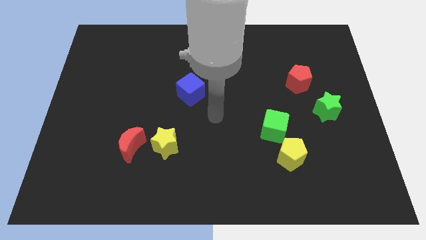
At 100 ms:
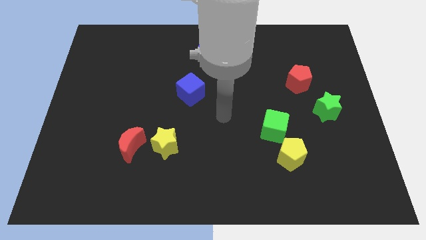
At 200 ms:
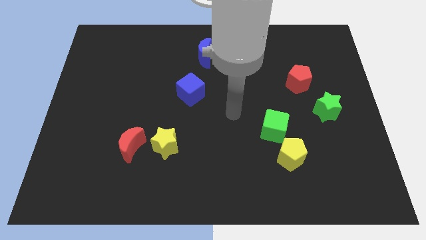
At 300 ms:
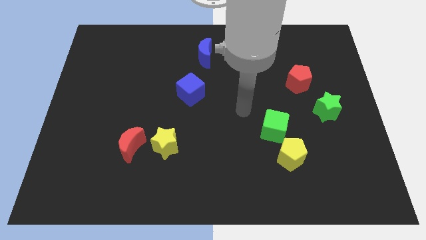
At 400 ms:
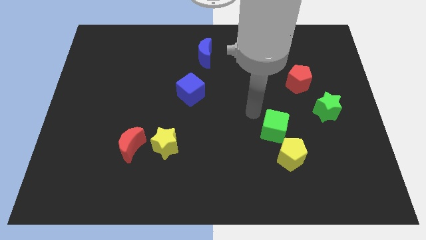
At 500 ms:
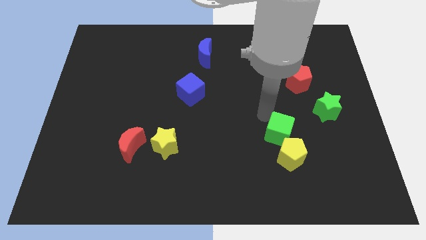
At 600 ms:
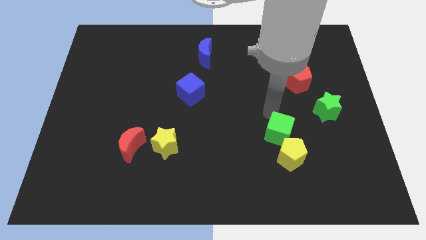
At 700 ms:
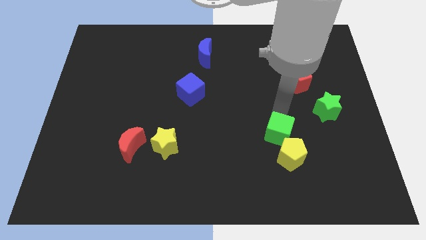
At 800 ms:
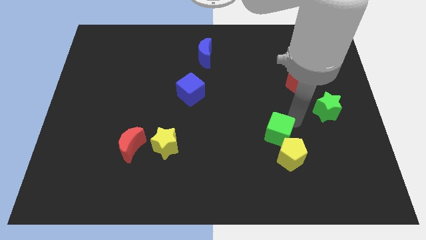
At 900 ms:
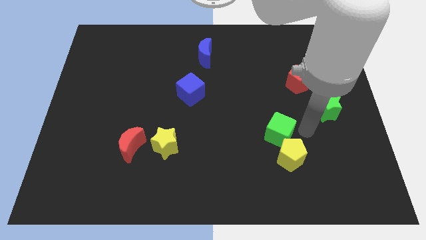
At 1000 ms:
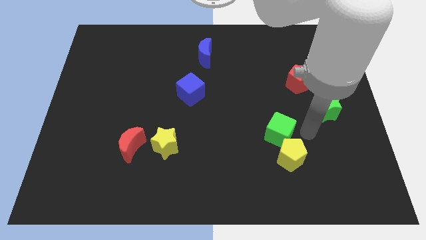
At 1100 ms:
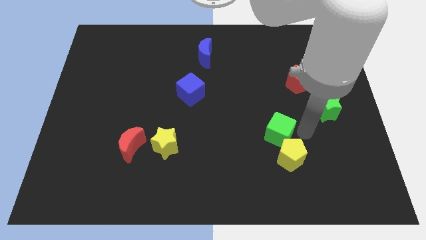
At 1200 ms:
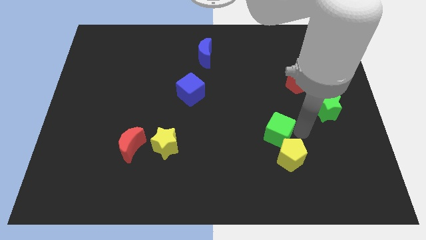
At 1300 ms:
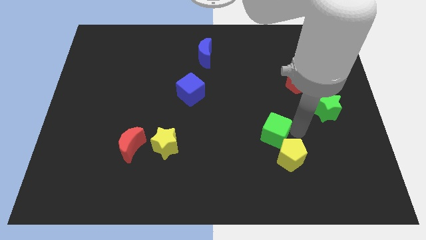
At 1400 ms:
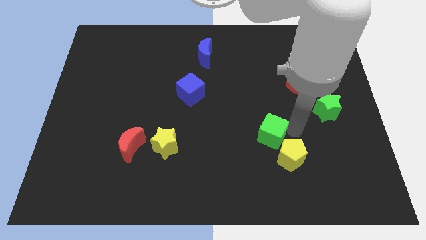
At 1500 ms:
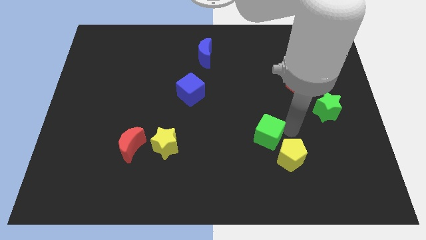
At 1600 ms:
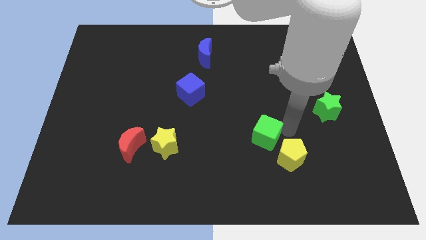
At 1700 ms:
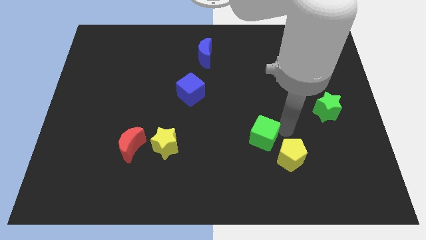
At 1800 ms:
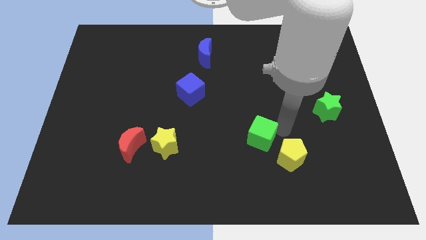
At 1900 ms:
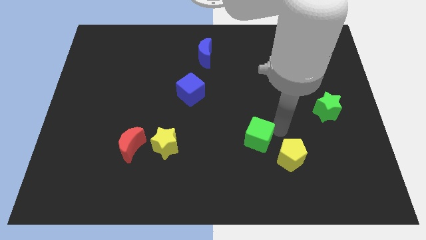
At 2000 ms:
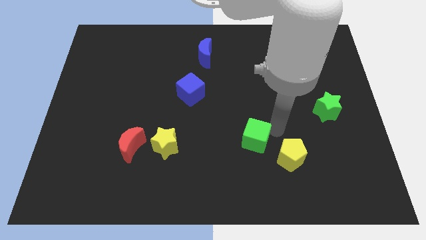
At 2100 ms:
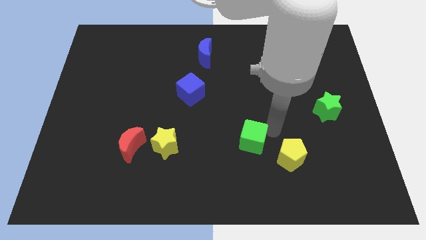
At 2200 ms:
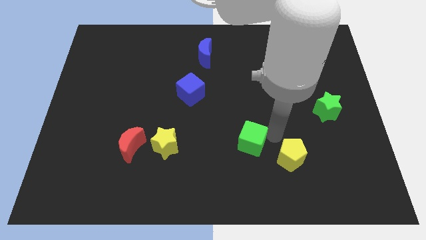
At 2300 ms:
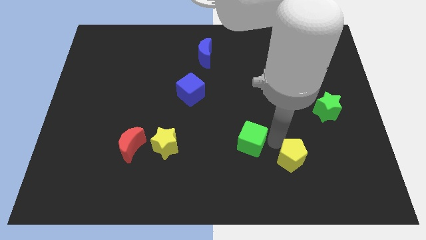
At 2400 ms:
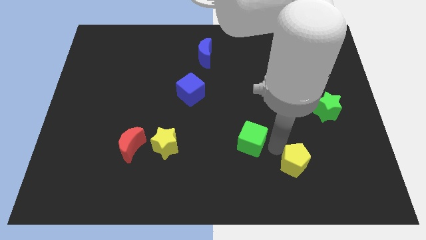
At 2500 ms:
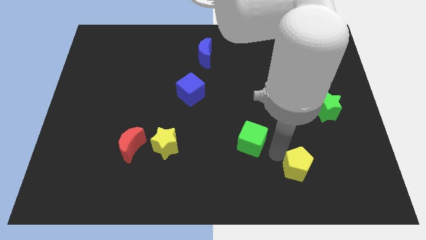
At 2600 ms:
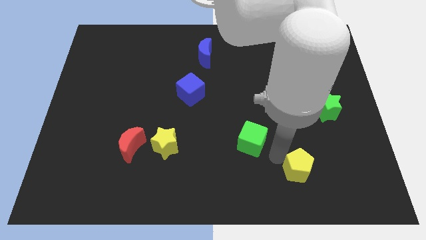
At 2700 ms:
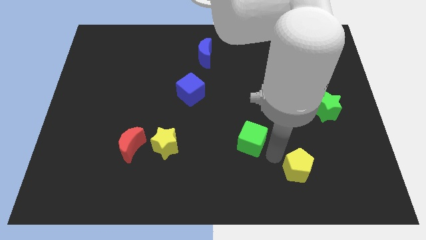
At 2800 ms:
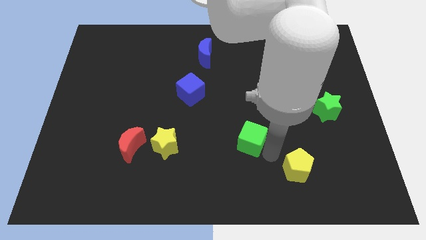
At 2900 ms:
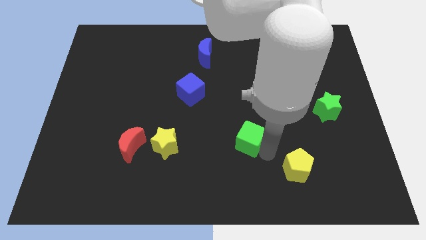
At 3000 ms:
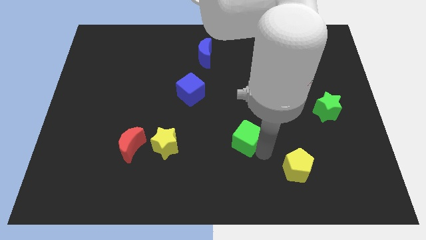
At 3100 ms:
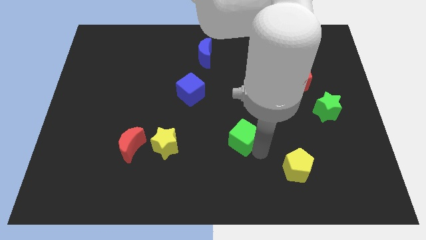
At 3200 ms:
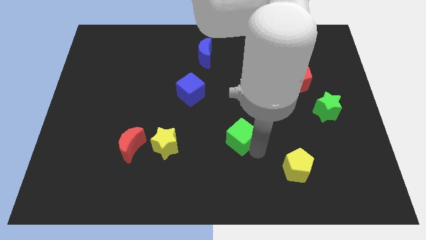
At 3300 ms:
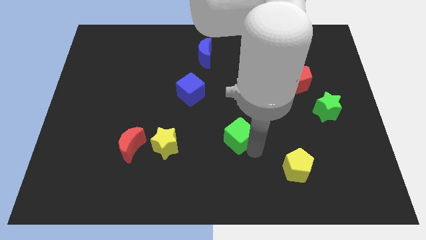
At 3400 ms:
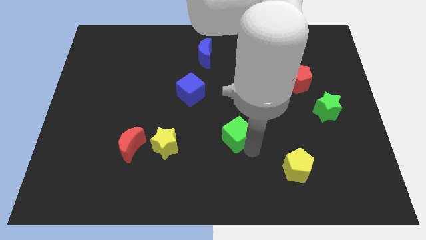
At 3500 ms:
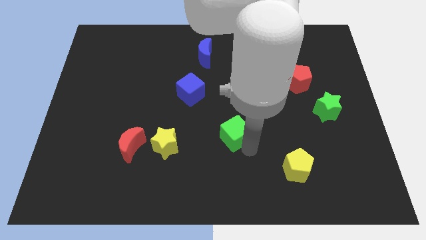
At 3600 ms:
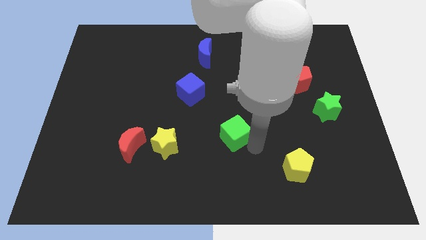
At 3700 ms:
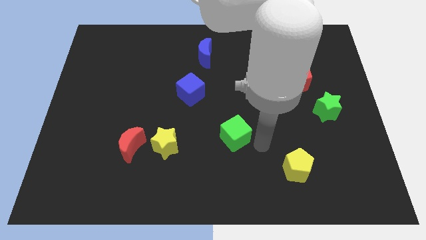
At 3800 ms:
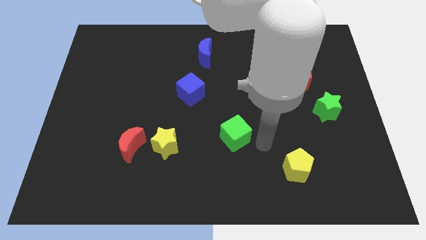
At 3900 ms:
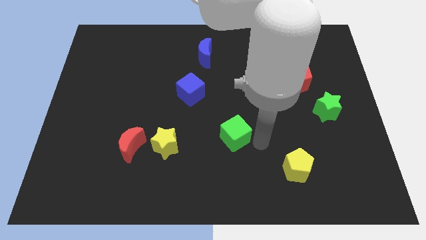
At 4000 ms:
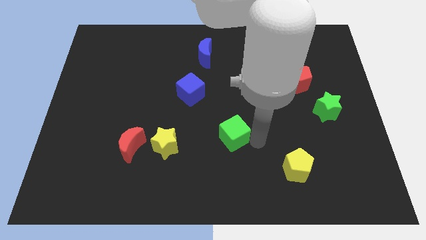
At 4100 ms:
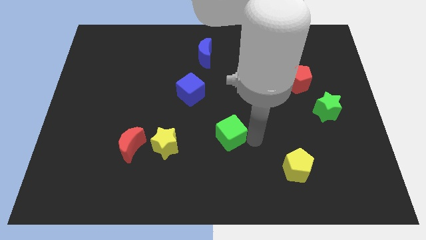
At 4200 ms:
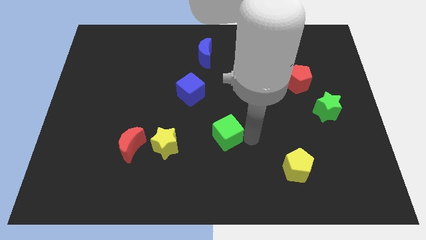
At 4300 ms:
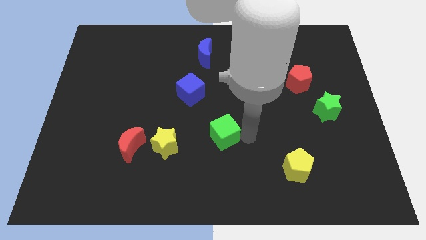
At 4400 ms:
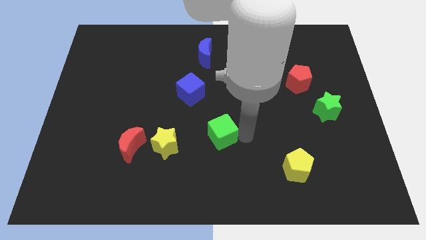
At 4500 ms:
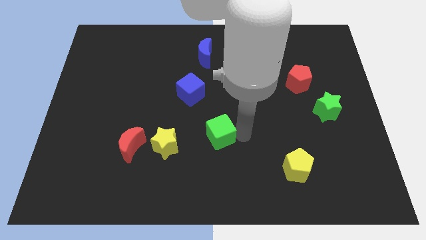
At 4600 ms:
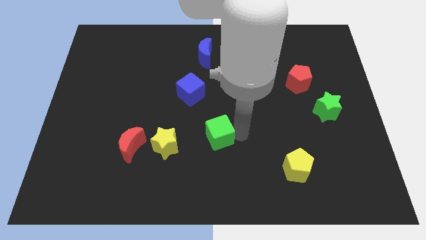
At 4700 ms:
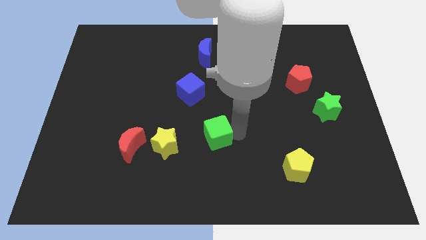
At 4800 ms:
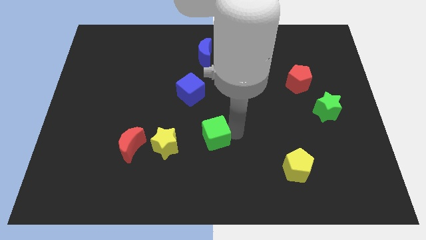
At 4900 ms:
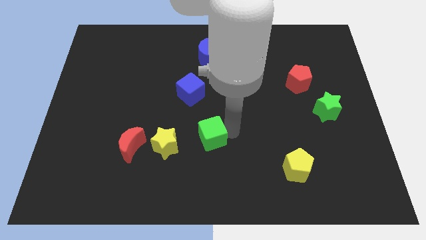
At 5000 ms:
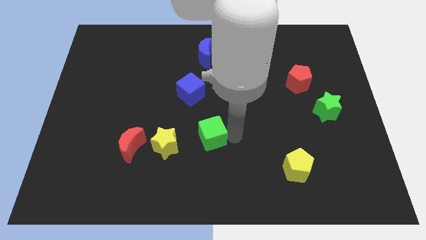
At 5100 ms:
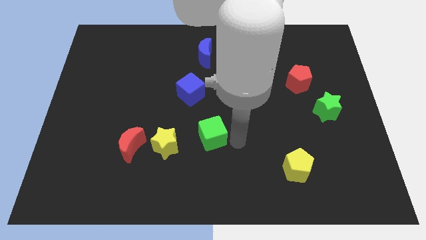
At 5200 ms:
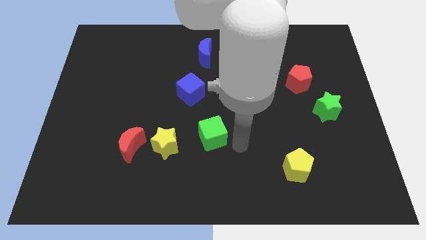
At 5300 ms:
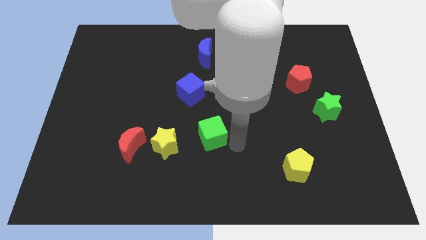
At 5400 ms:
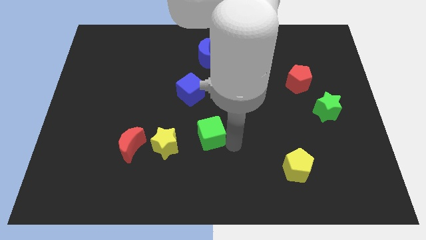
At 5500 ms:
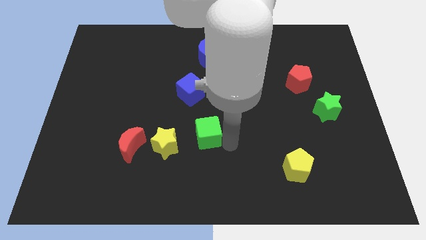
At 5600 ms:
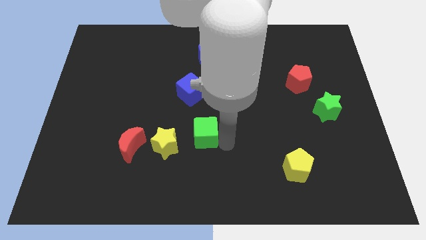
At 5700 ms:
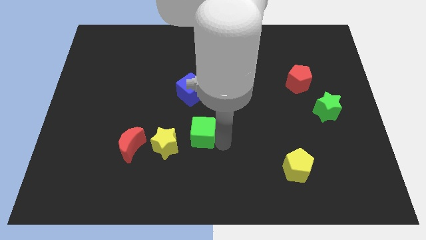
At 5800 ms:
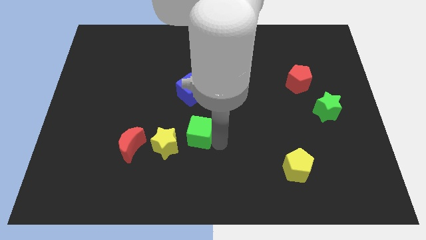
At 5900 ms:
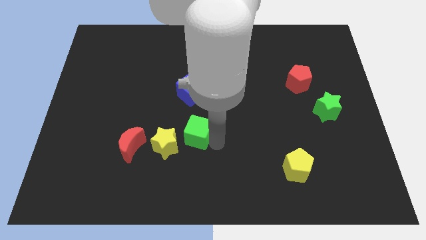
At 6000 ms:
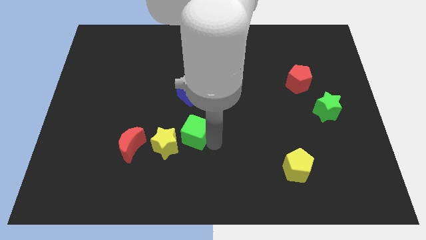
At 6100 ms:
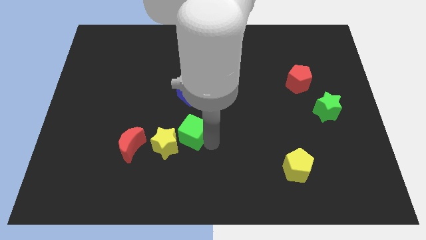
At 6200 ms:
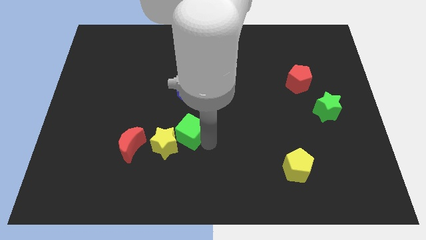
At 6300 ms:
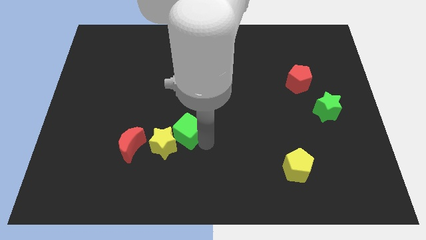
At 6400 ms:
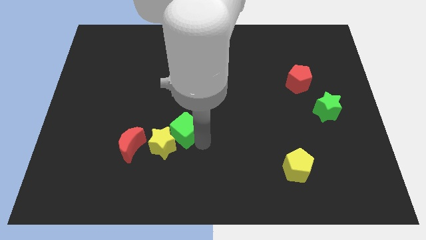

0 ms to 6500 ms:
slide the green cube left

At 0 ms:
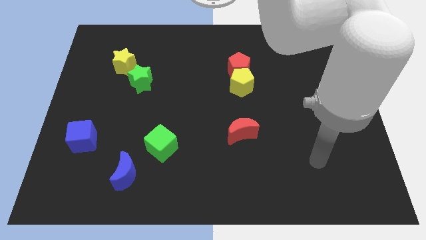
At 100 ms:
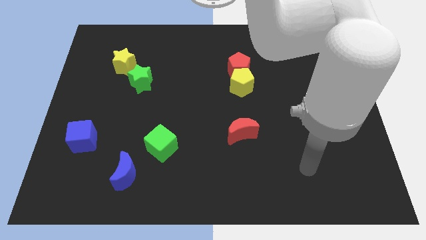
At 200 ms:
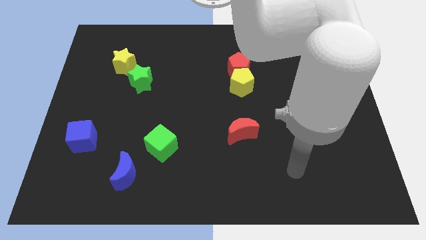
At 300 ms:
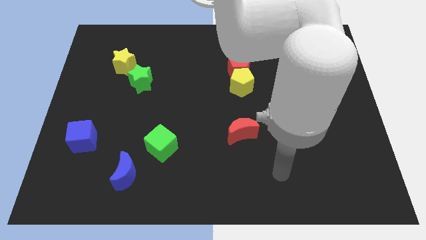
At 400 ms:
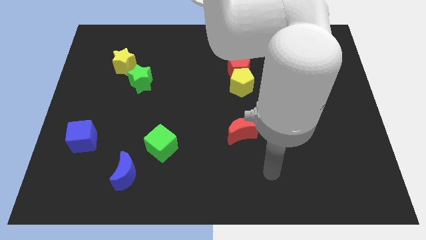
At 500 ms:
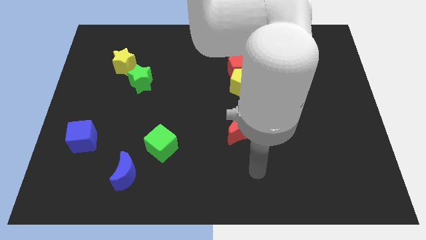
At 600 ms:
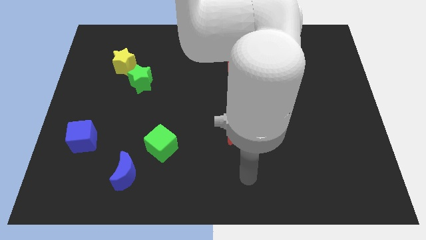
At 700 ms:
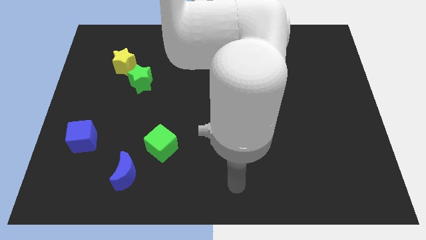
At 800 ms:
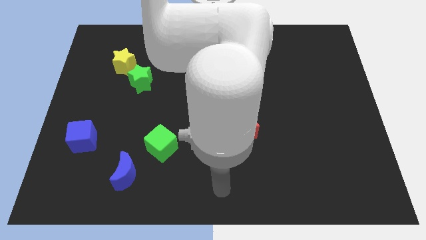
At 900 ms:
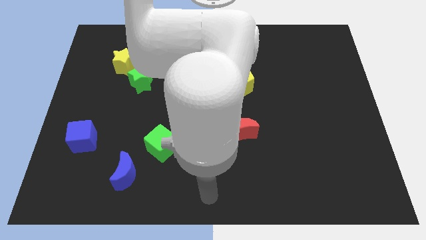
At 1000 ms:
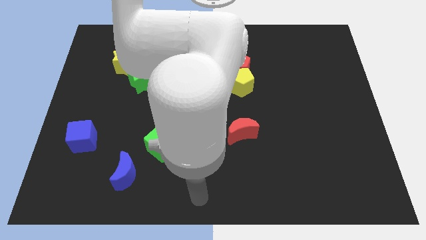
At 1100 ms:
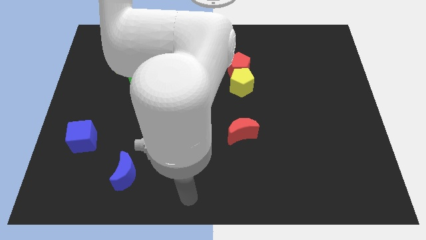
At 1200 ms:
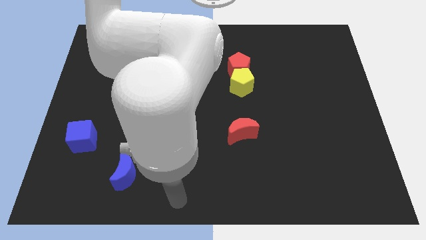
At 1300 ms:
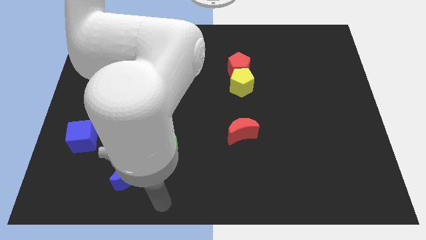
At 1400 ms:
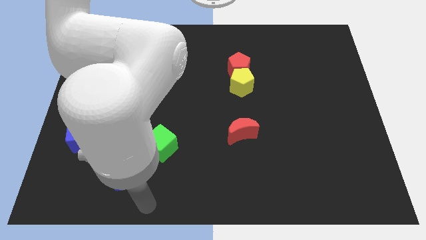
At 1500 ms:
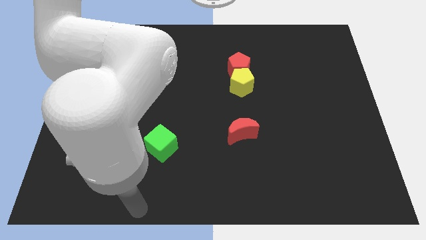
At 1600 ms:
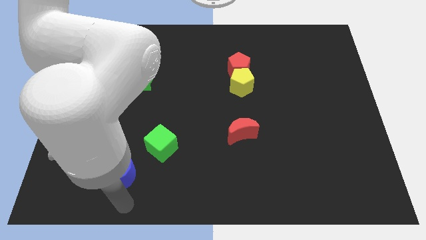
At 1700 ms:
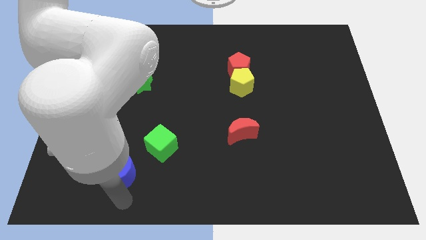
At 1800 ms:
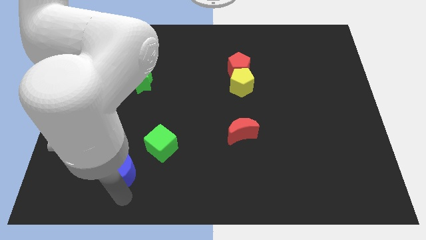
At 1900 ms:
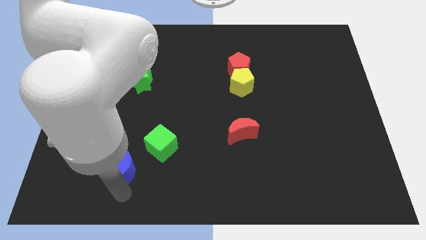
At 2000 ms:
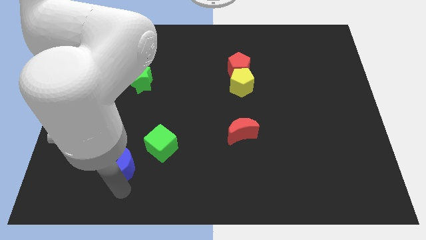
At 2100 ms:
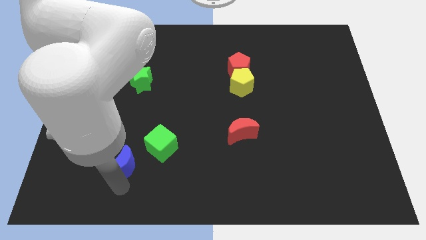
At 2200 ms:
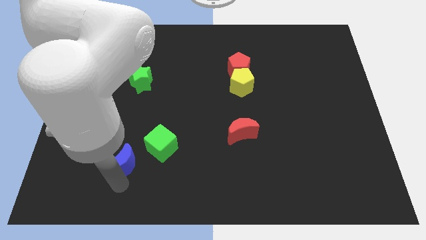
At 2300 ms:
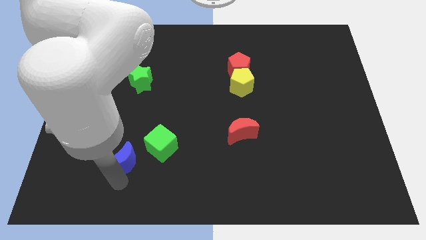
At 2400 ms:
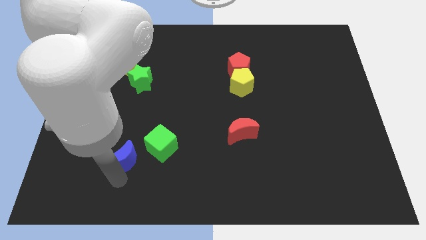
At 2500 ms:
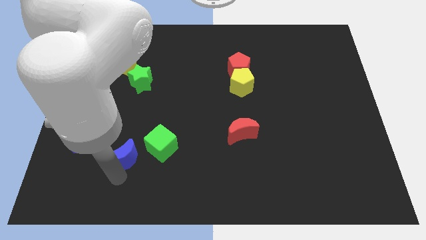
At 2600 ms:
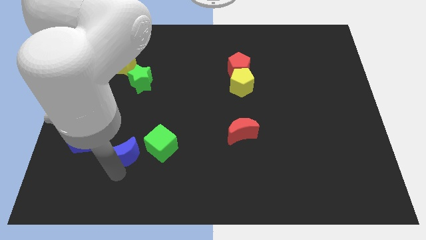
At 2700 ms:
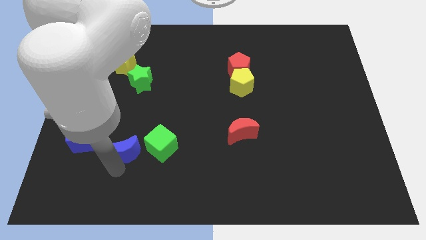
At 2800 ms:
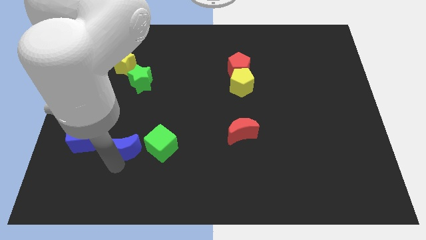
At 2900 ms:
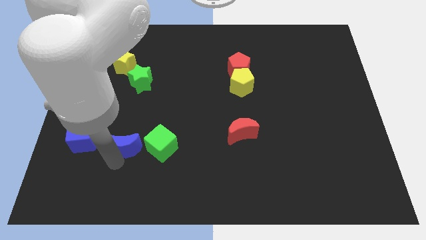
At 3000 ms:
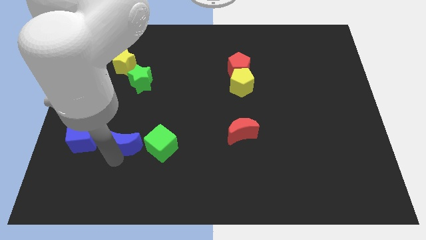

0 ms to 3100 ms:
slightly slide the blue moon up
